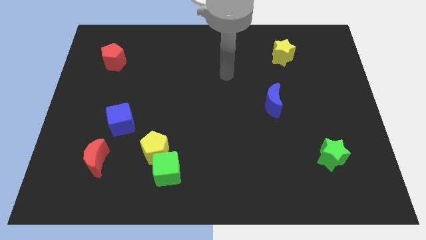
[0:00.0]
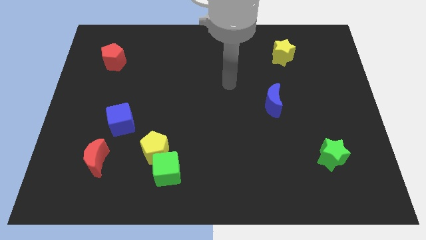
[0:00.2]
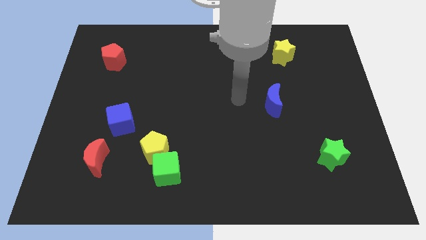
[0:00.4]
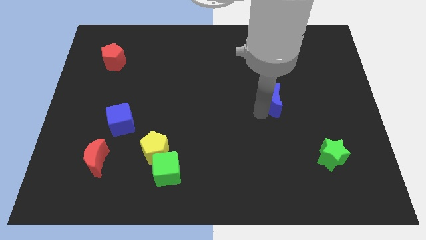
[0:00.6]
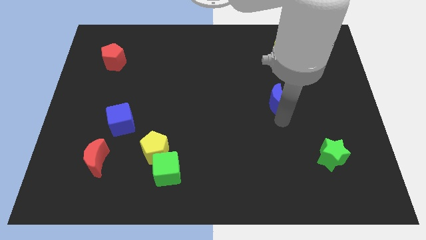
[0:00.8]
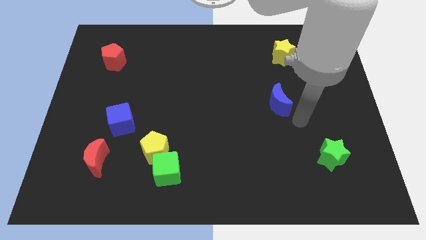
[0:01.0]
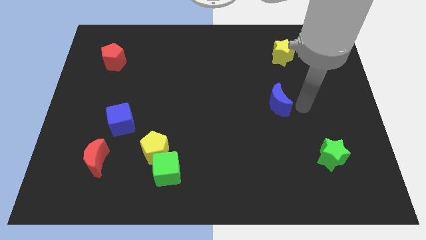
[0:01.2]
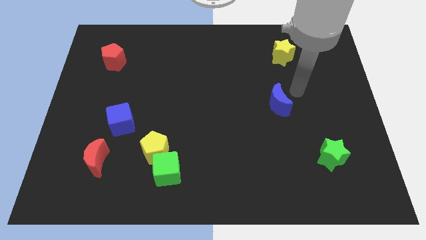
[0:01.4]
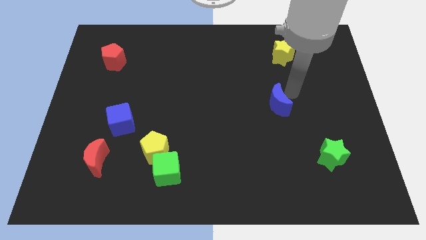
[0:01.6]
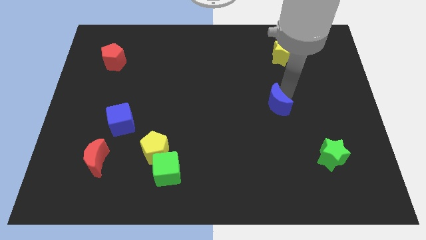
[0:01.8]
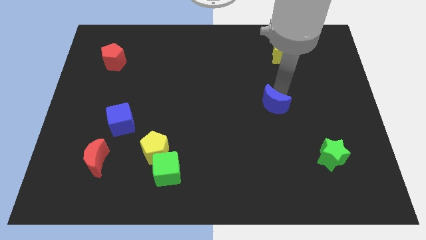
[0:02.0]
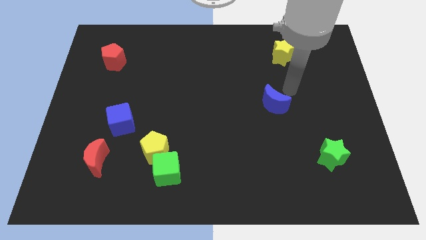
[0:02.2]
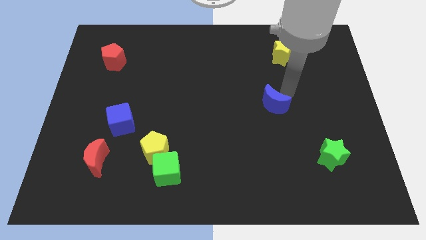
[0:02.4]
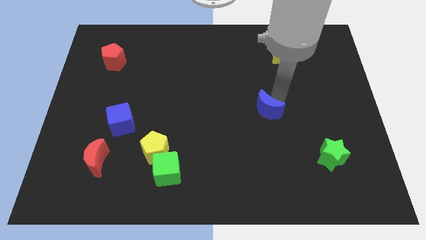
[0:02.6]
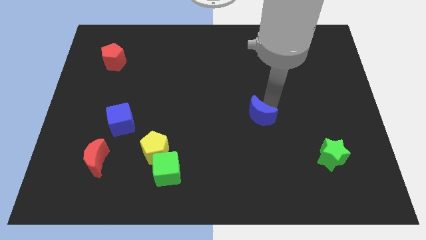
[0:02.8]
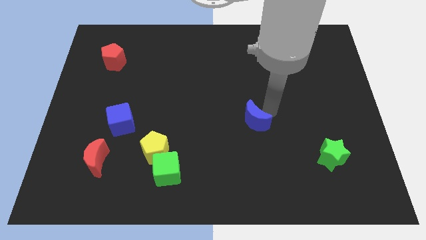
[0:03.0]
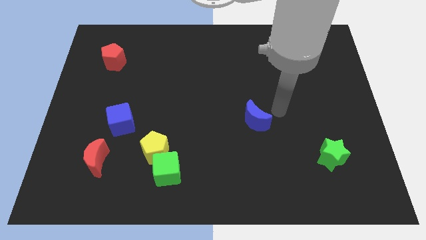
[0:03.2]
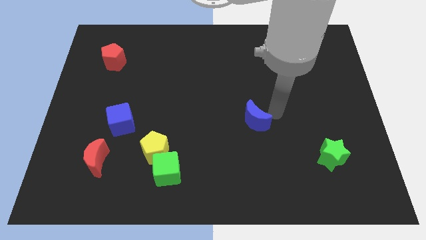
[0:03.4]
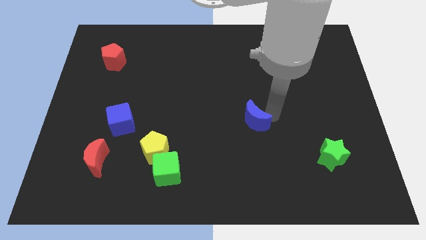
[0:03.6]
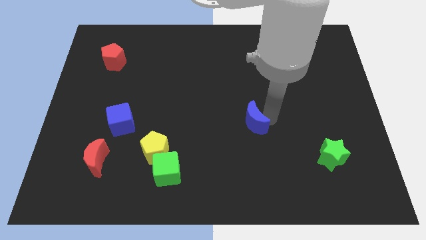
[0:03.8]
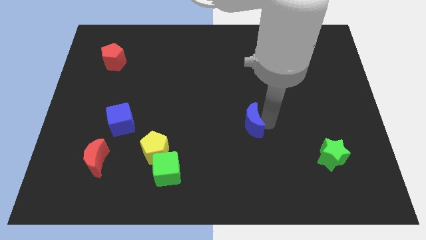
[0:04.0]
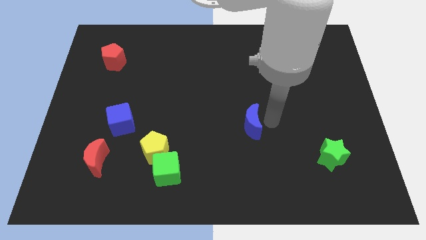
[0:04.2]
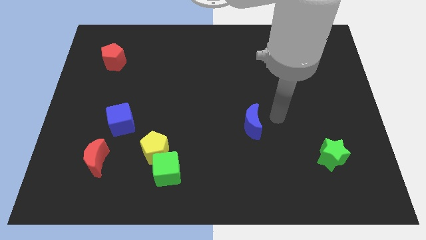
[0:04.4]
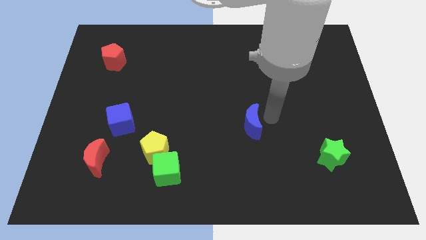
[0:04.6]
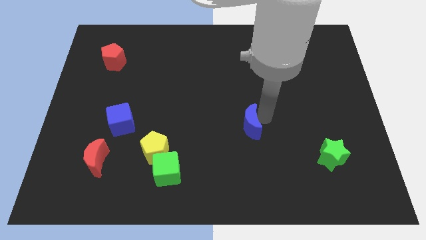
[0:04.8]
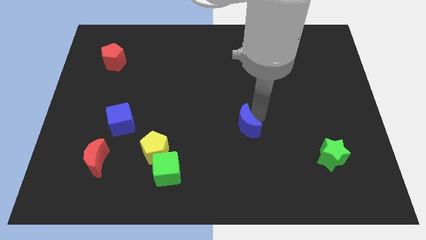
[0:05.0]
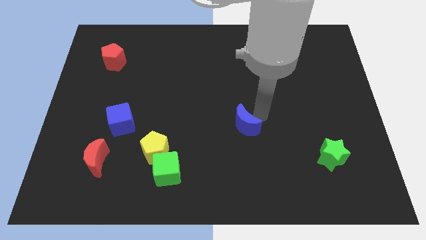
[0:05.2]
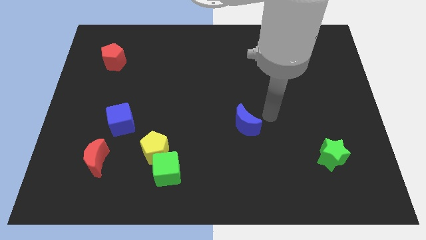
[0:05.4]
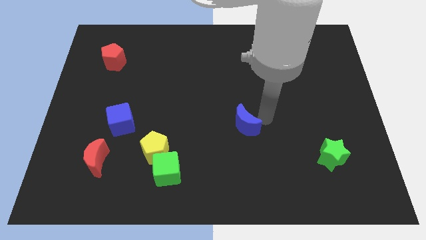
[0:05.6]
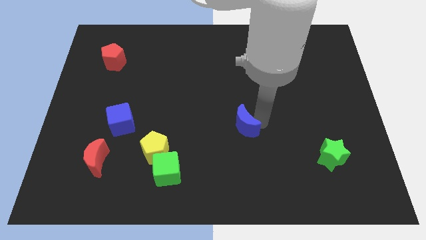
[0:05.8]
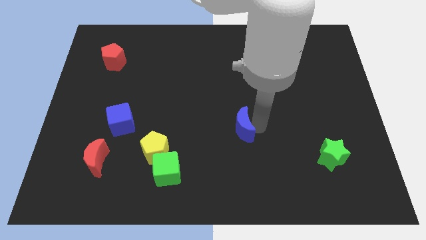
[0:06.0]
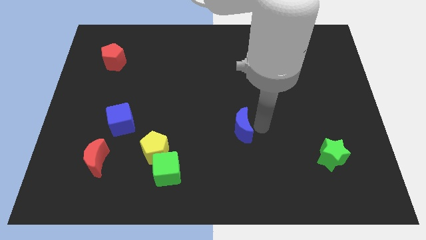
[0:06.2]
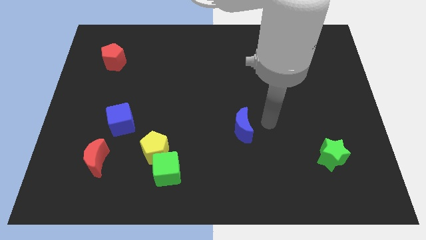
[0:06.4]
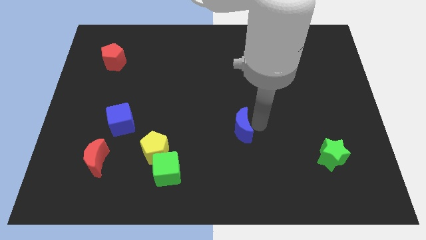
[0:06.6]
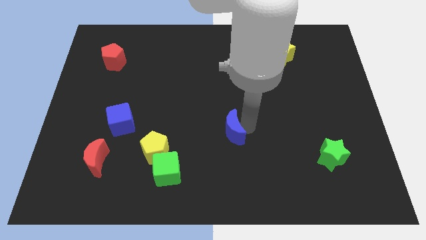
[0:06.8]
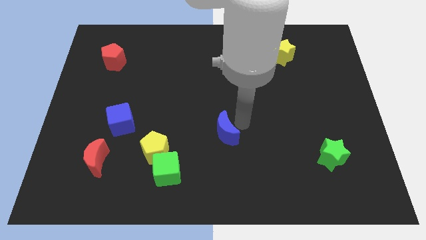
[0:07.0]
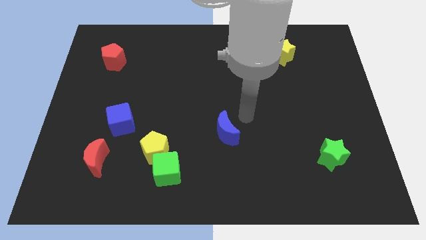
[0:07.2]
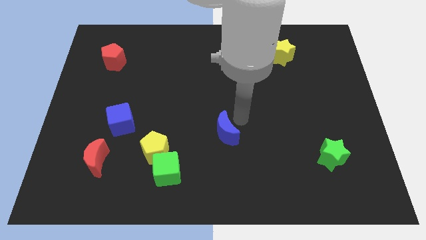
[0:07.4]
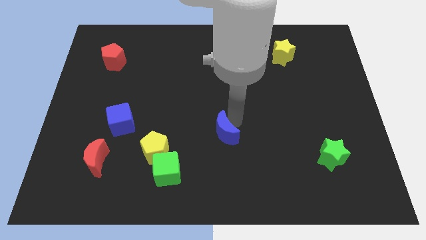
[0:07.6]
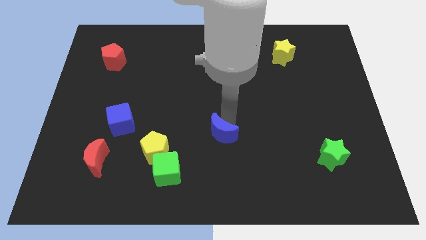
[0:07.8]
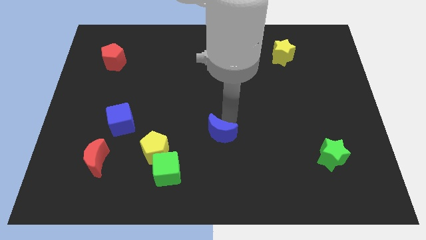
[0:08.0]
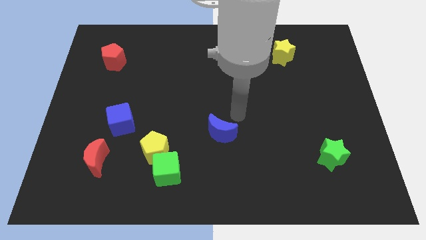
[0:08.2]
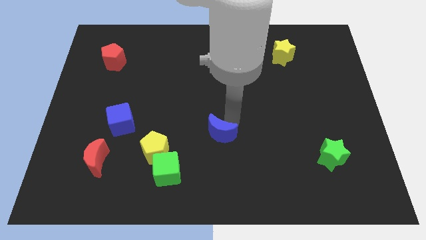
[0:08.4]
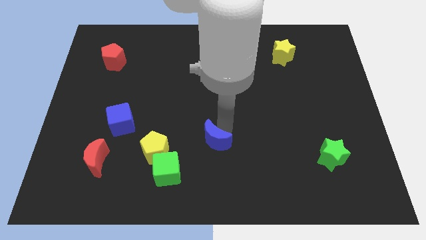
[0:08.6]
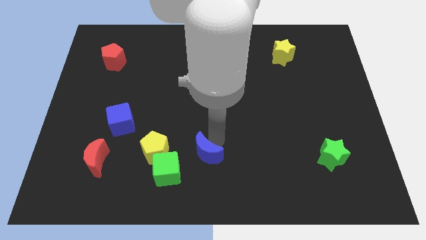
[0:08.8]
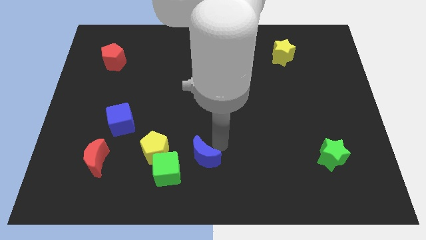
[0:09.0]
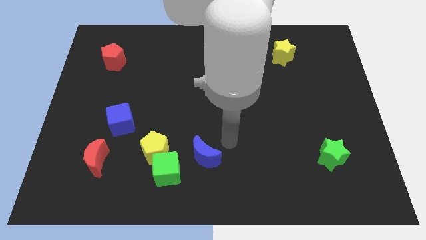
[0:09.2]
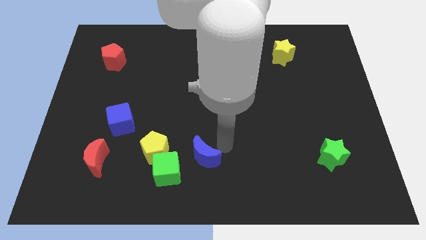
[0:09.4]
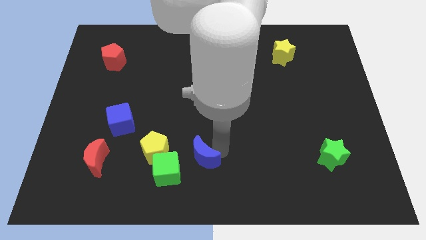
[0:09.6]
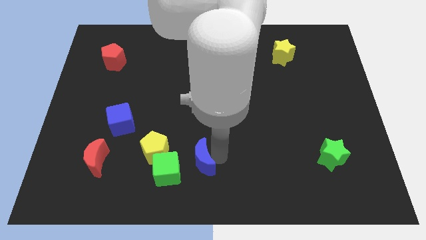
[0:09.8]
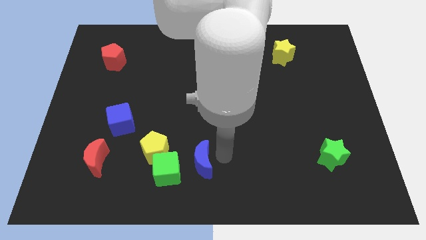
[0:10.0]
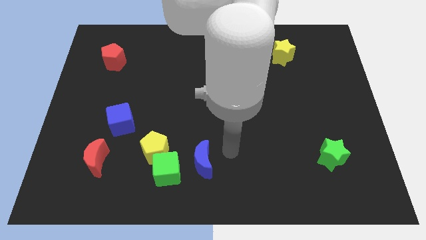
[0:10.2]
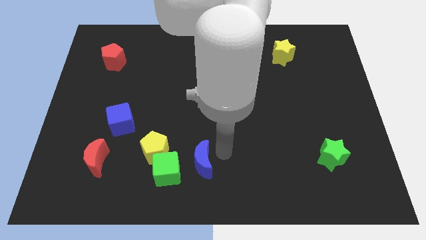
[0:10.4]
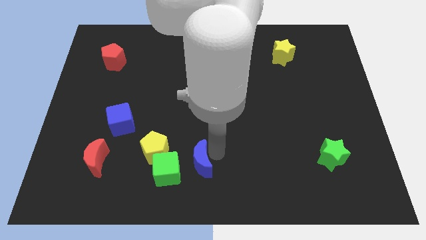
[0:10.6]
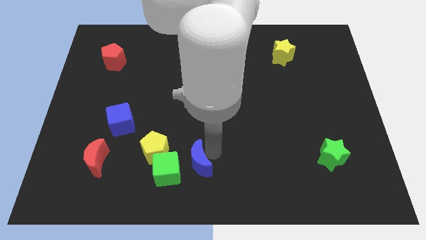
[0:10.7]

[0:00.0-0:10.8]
slide the blue moon to the bottom right of the yellow pentagon

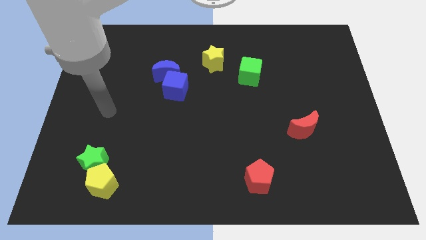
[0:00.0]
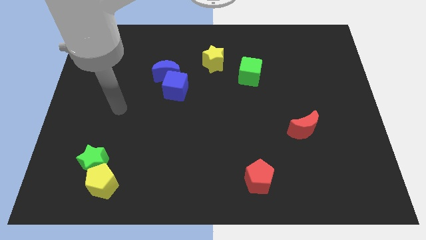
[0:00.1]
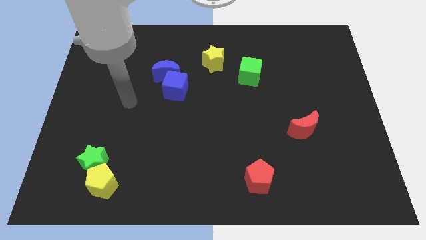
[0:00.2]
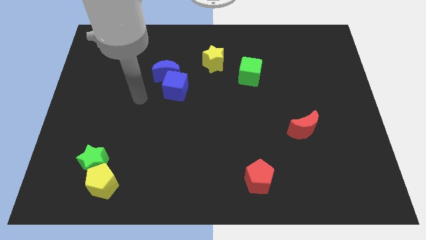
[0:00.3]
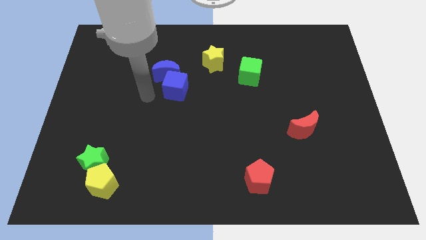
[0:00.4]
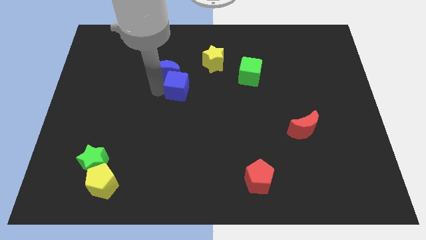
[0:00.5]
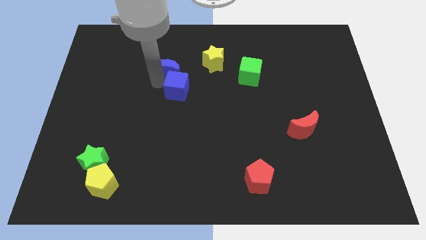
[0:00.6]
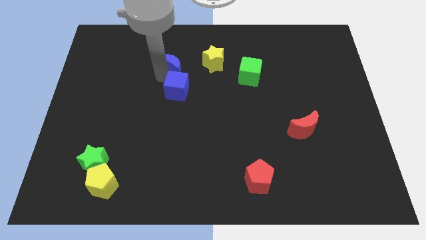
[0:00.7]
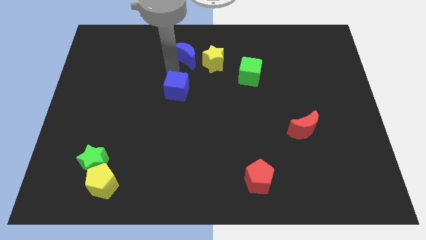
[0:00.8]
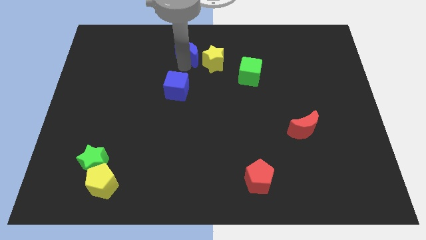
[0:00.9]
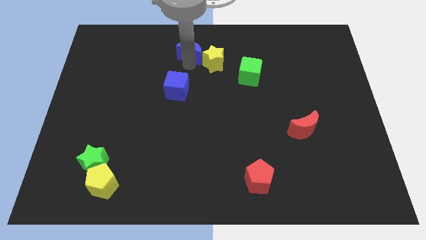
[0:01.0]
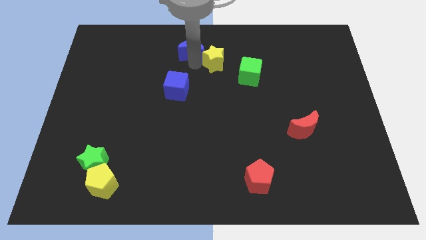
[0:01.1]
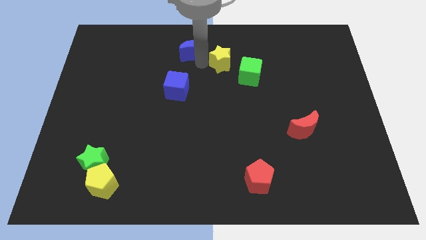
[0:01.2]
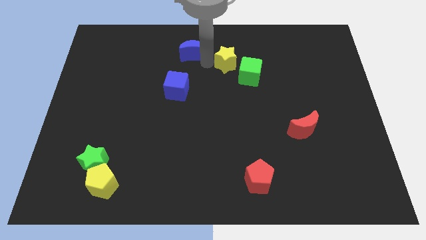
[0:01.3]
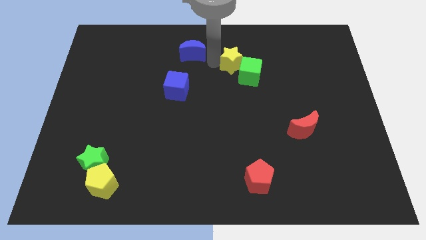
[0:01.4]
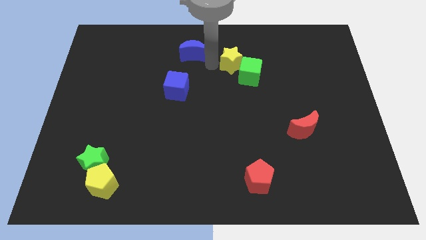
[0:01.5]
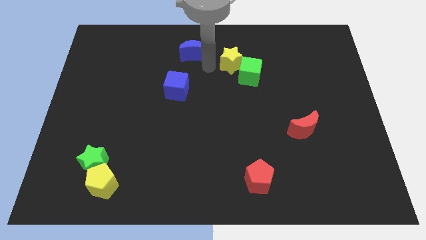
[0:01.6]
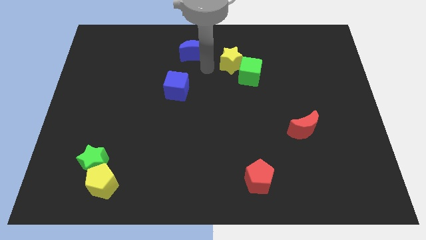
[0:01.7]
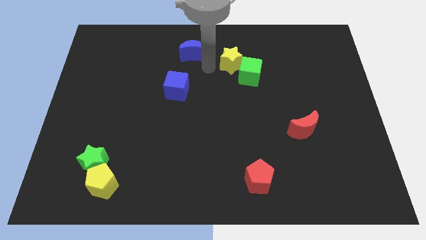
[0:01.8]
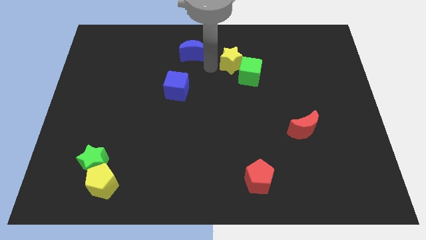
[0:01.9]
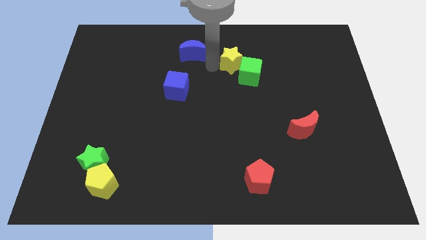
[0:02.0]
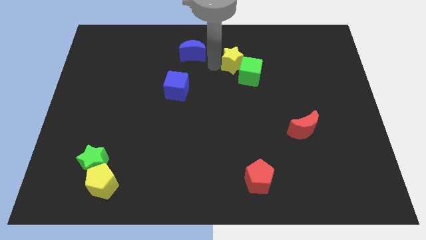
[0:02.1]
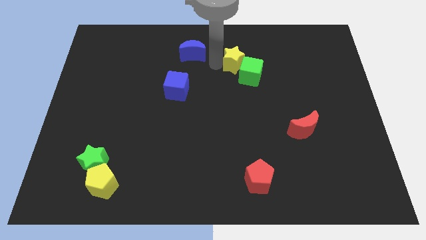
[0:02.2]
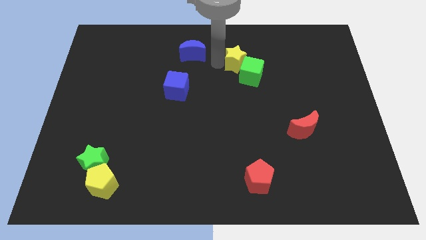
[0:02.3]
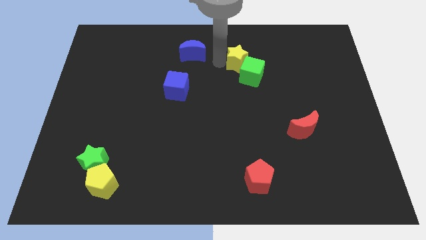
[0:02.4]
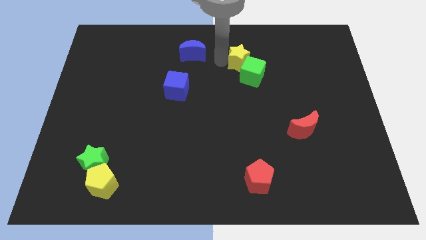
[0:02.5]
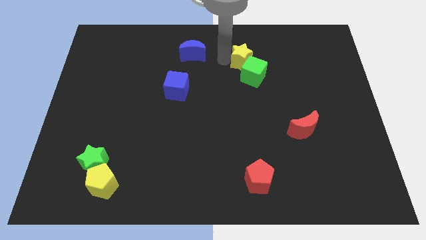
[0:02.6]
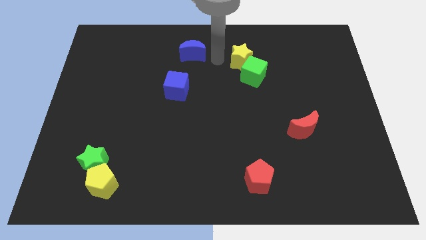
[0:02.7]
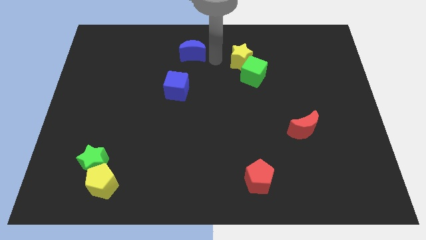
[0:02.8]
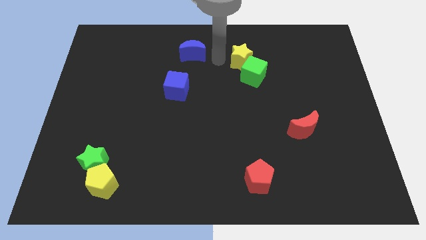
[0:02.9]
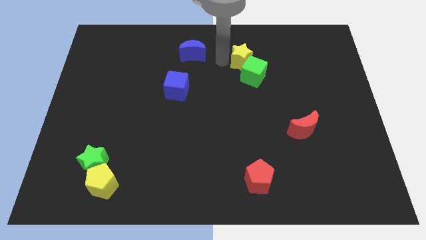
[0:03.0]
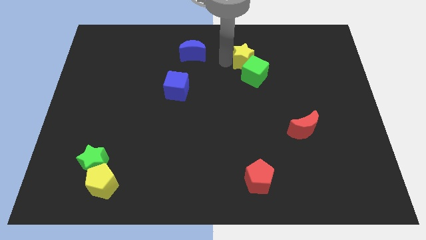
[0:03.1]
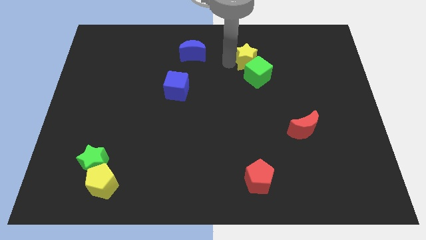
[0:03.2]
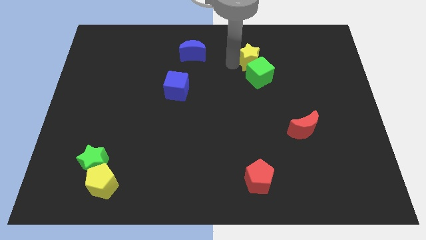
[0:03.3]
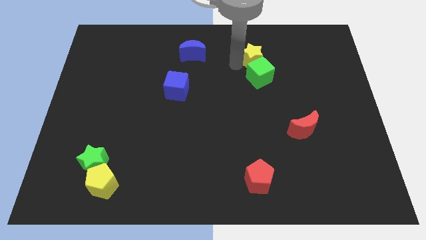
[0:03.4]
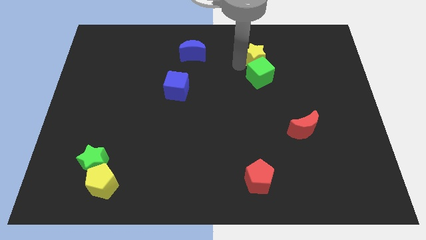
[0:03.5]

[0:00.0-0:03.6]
slide the yellow star to the top right side of the green cube
